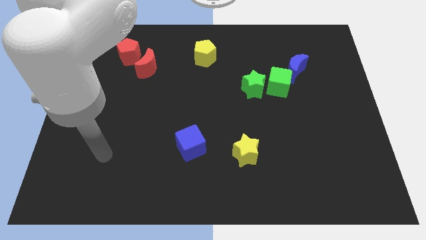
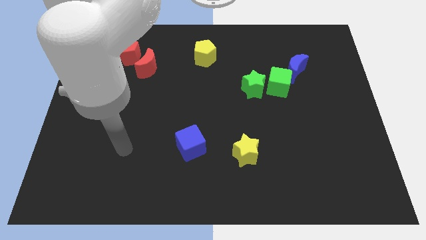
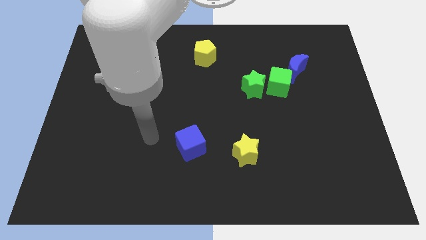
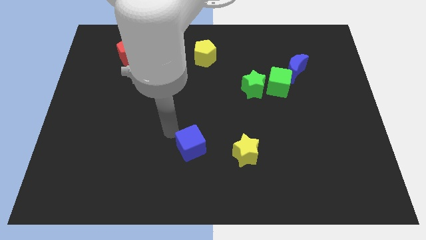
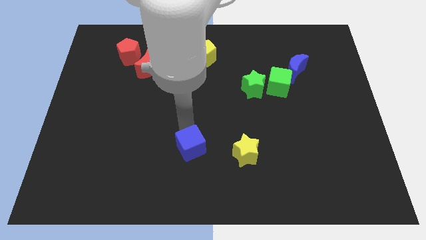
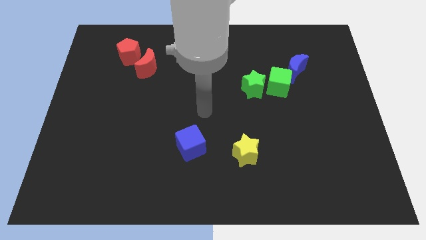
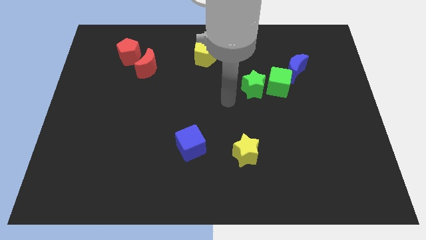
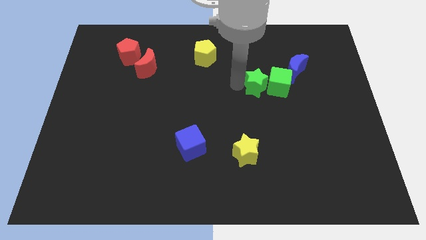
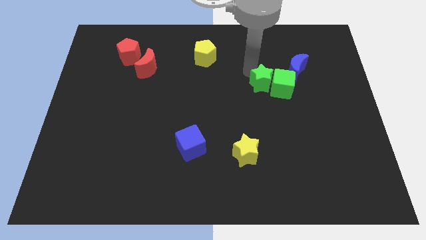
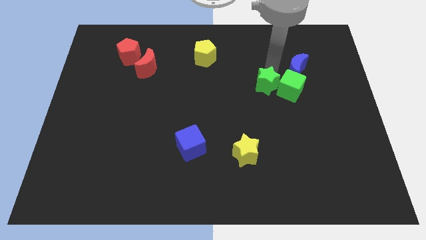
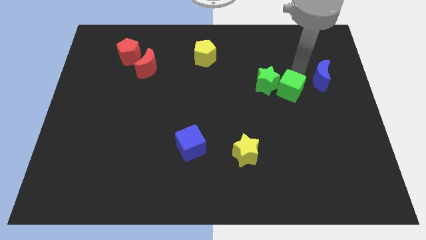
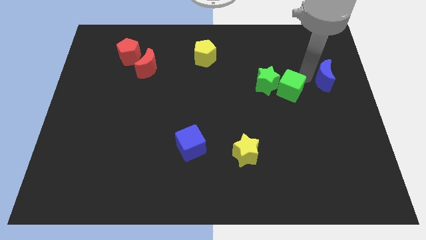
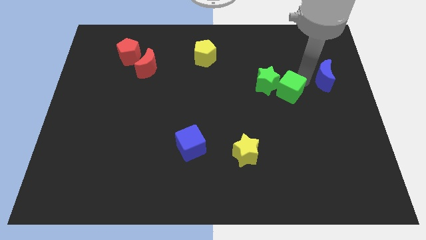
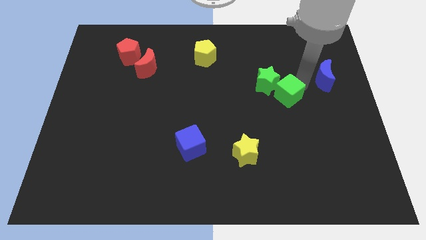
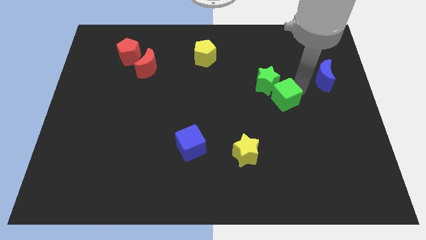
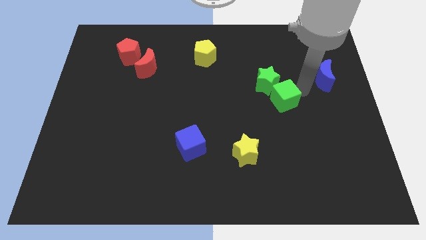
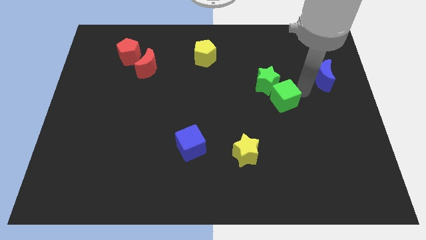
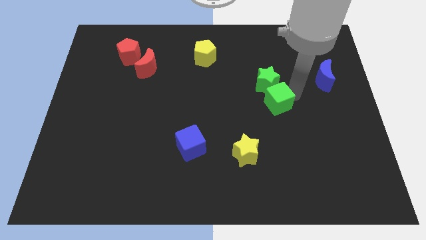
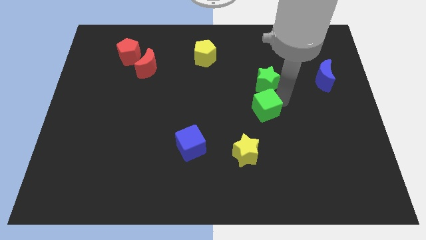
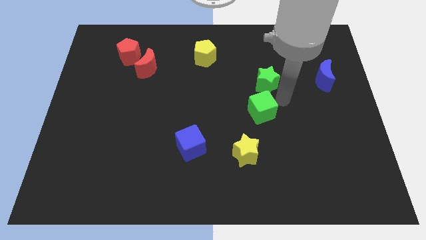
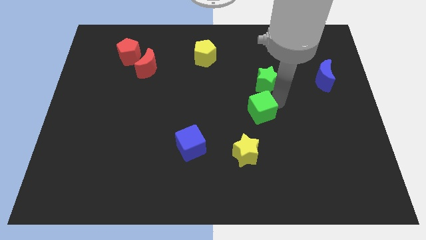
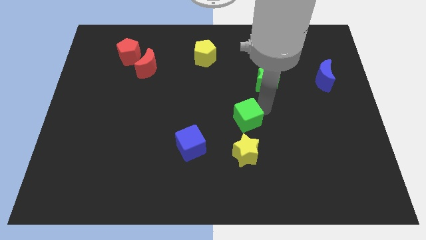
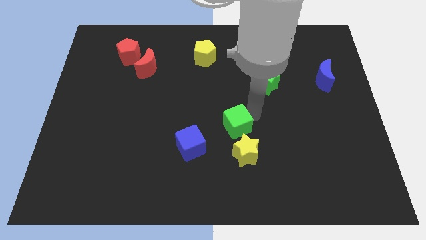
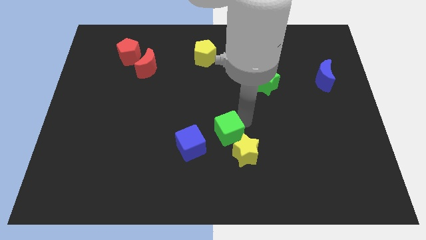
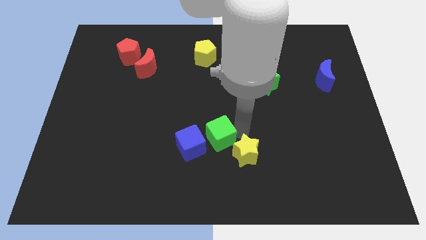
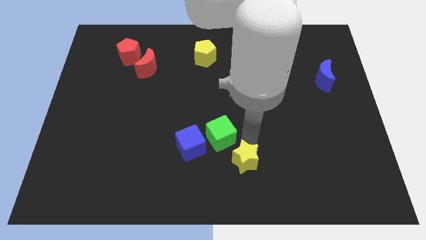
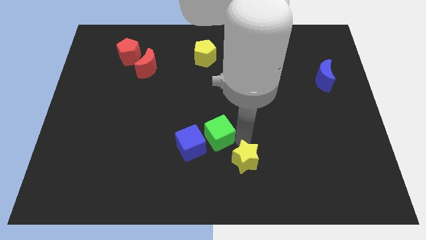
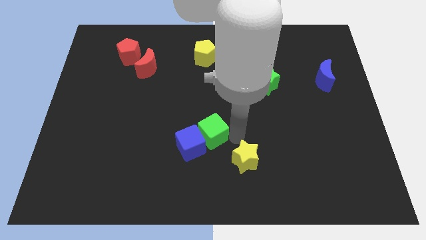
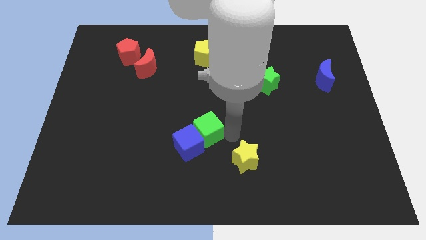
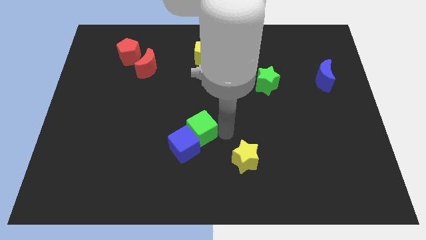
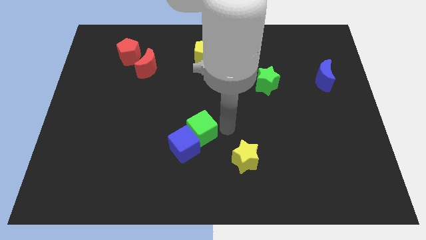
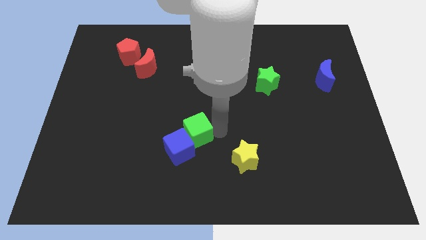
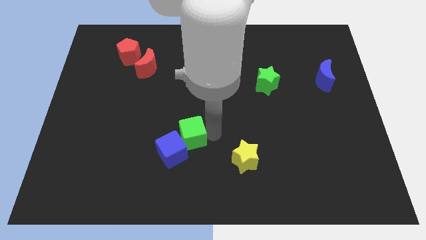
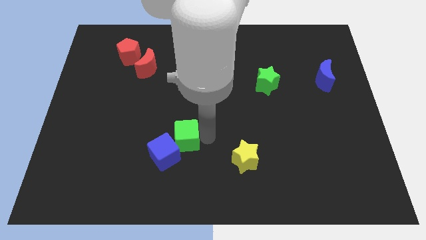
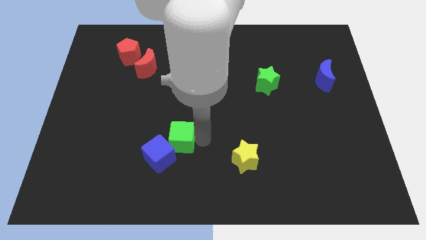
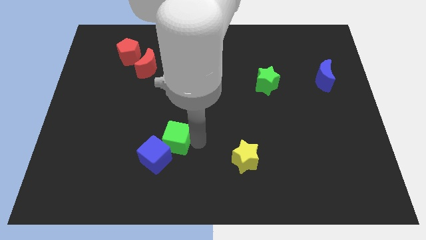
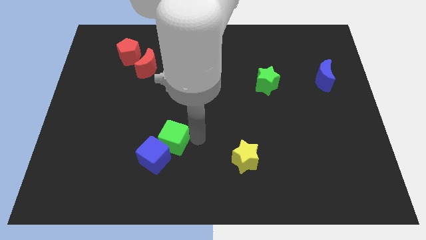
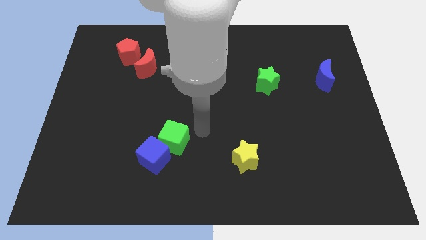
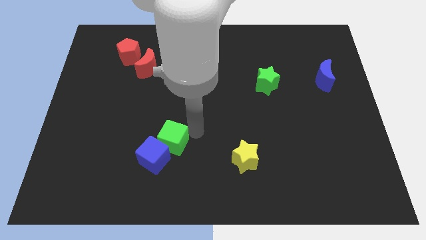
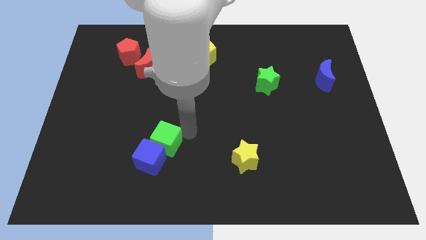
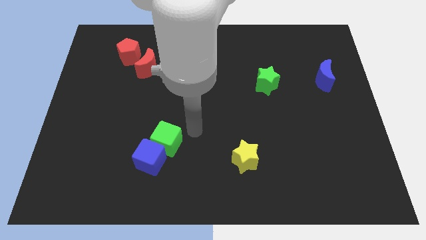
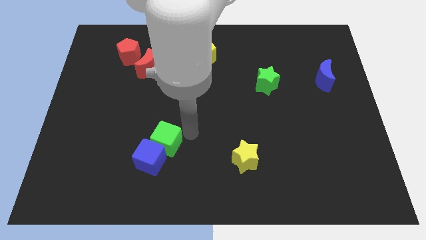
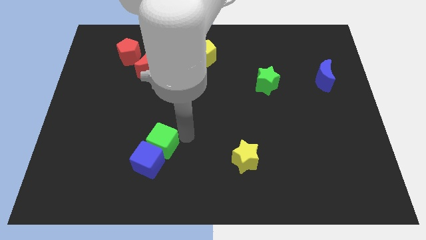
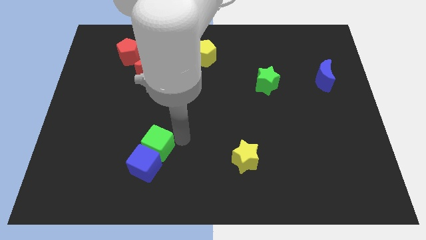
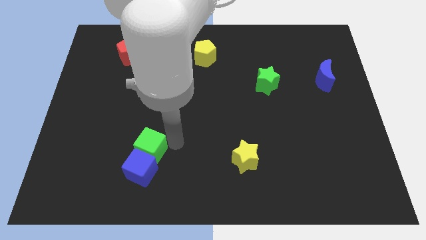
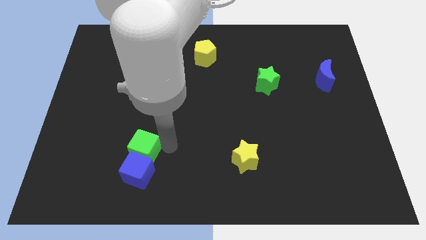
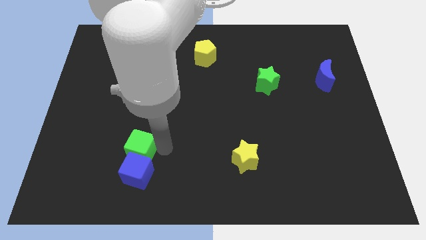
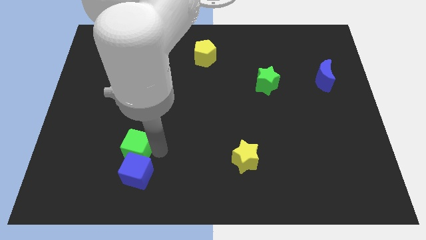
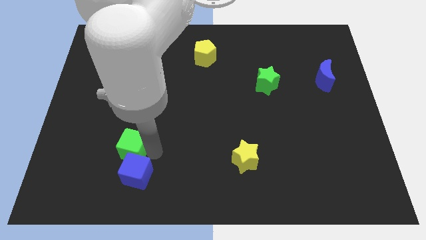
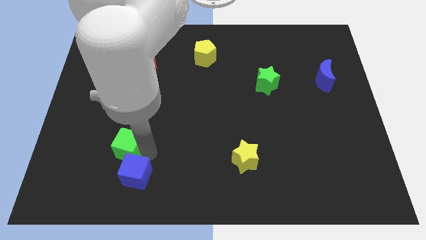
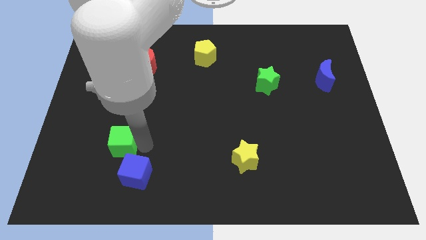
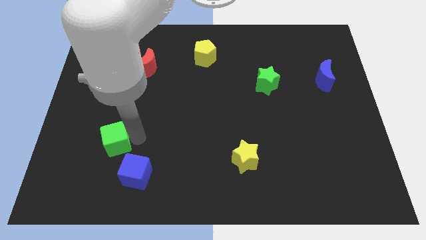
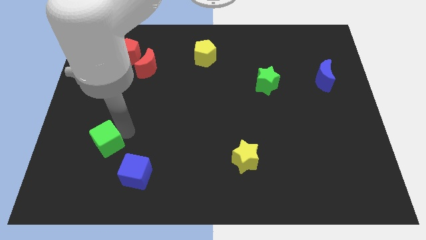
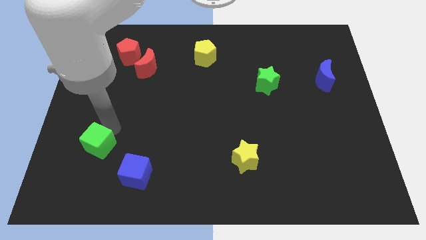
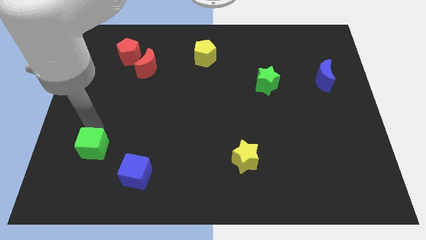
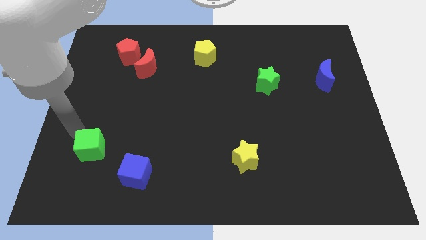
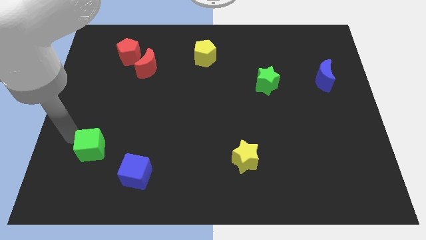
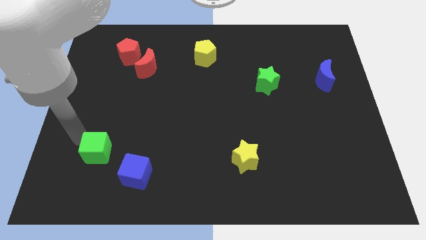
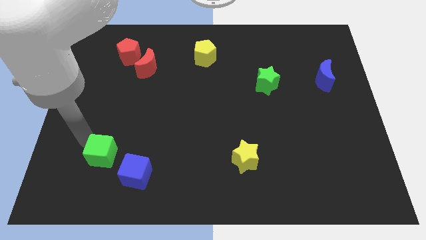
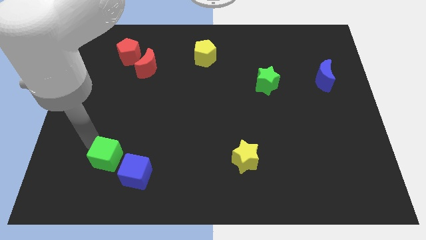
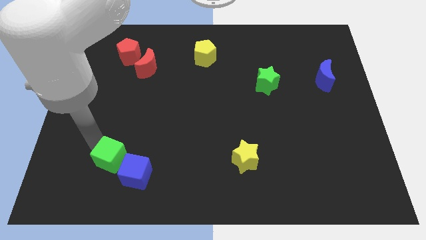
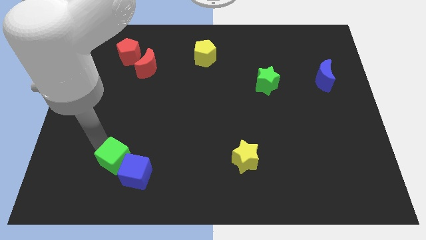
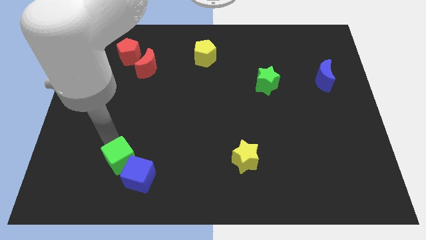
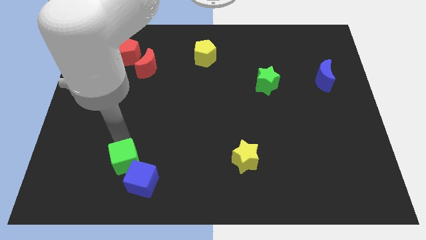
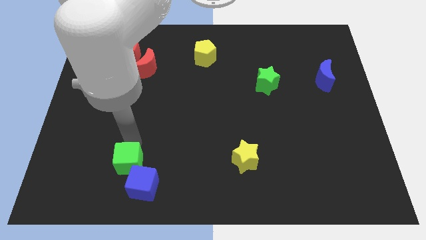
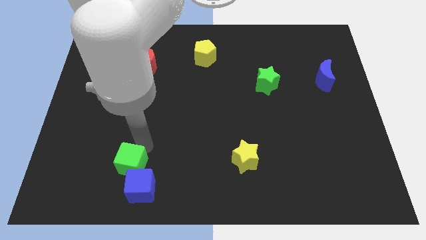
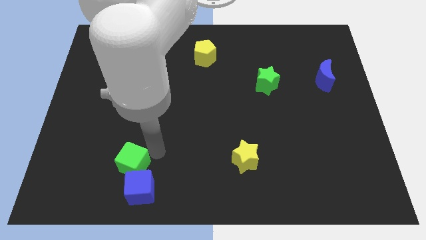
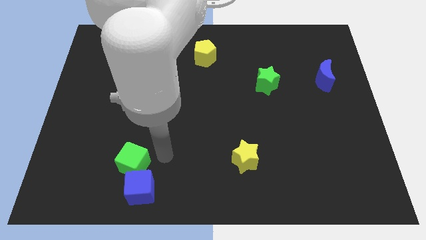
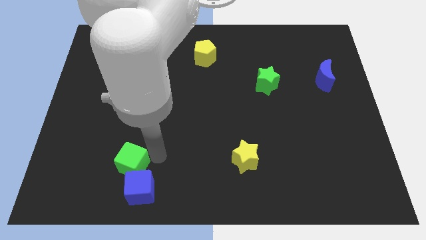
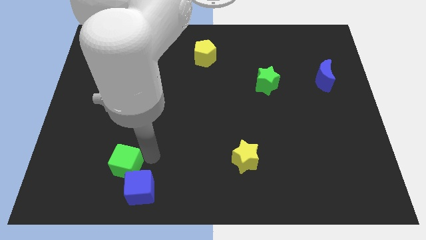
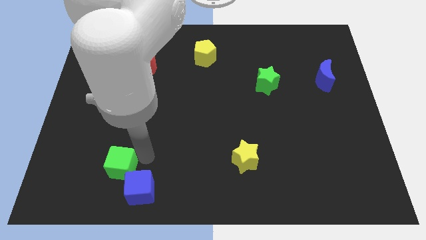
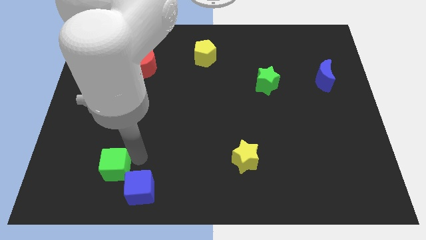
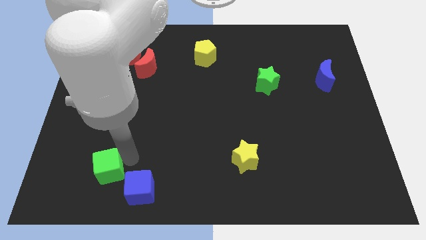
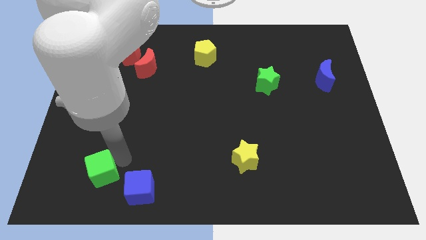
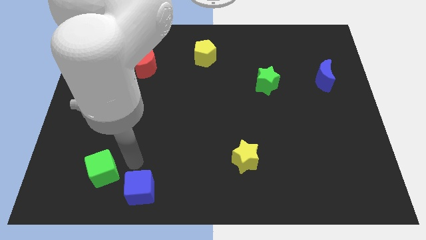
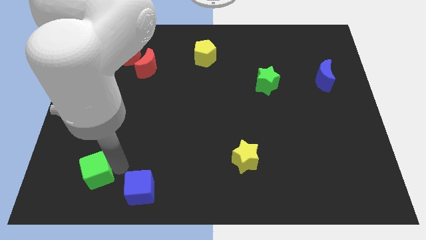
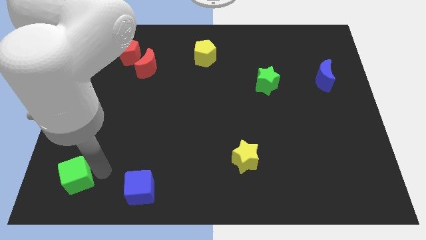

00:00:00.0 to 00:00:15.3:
slide the green cube to the bottom left corner
